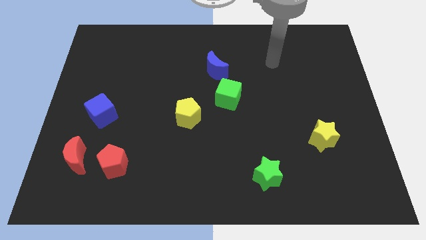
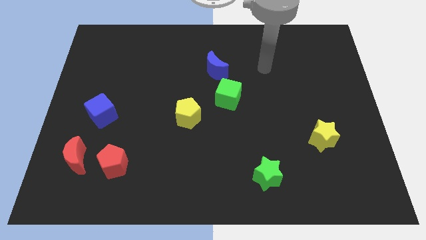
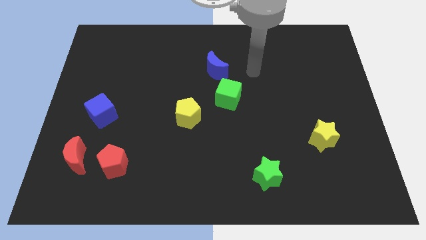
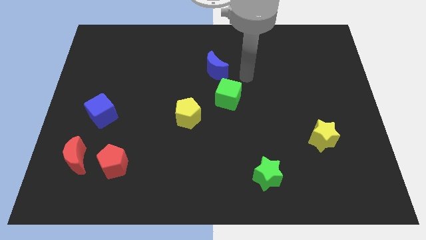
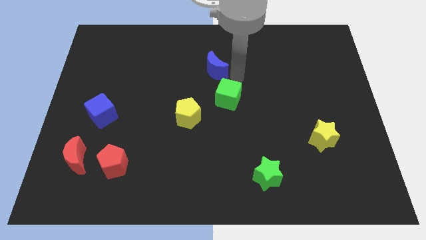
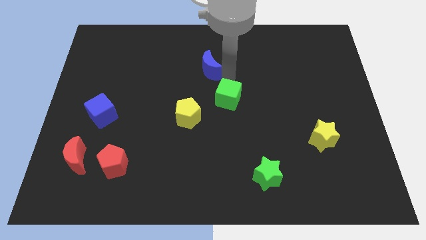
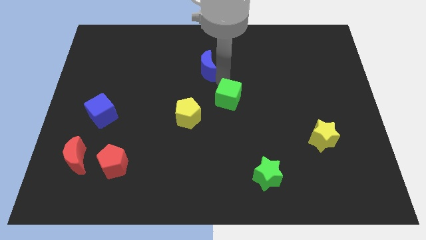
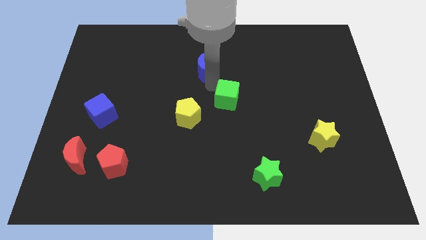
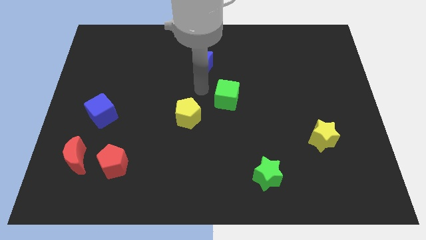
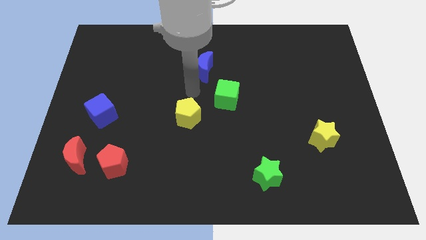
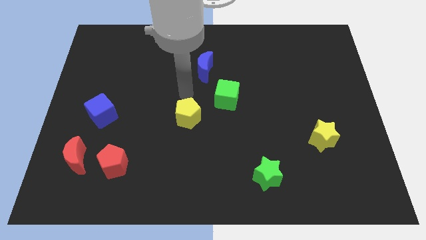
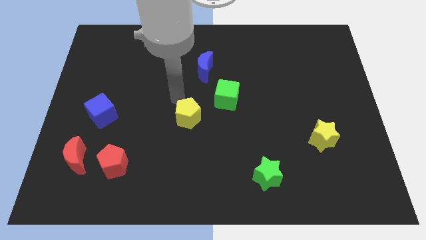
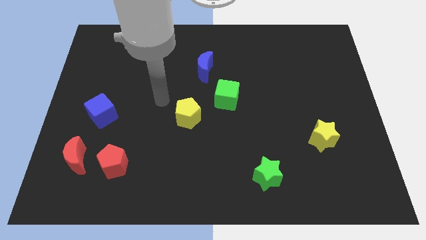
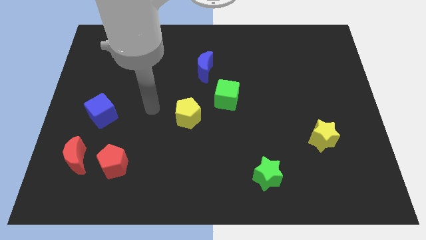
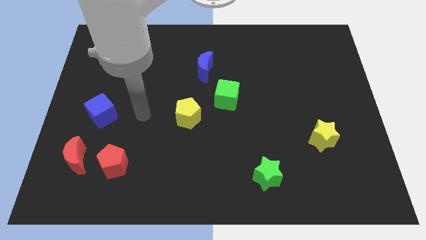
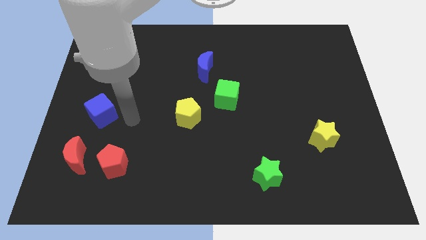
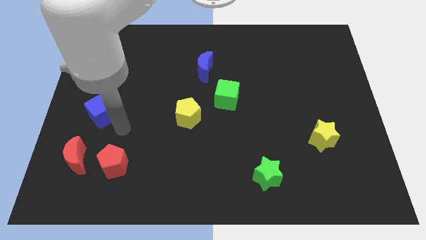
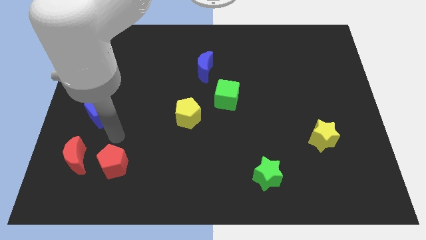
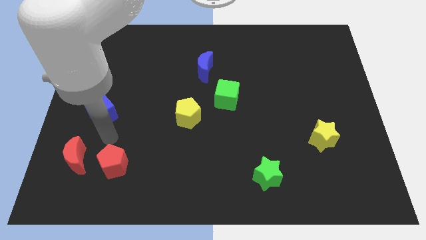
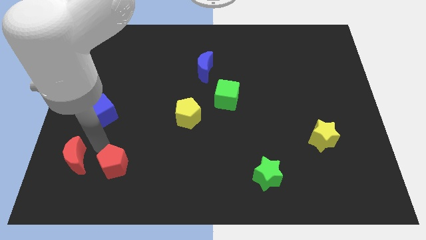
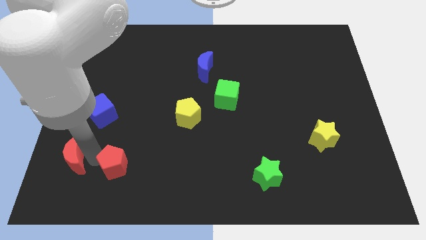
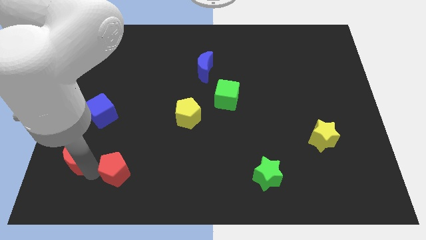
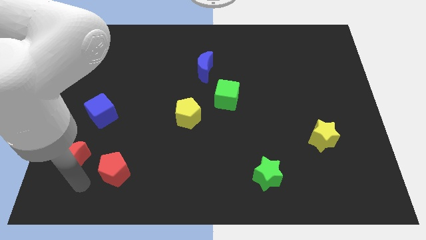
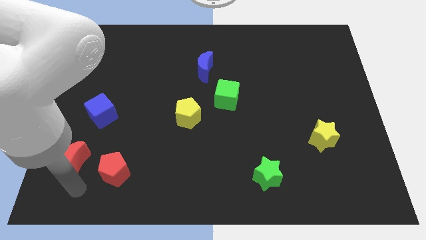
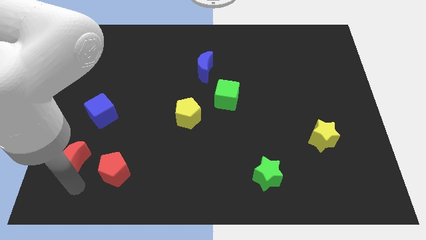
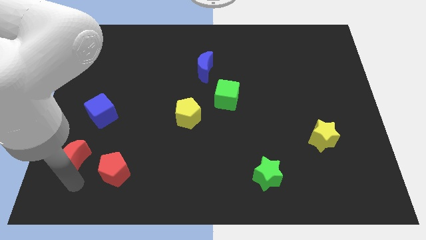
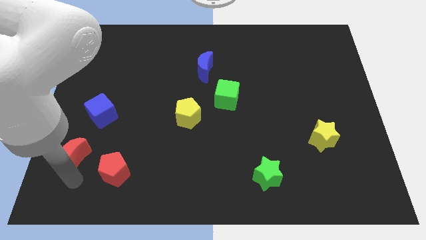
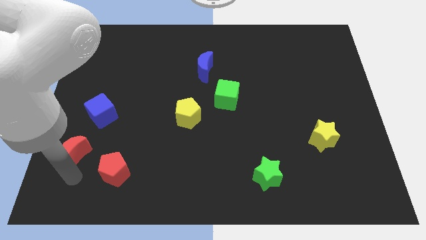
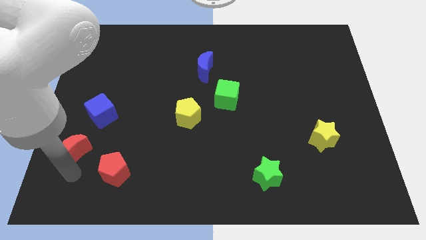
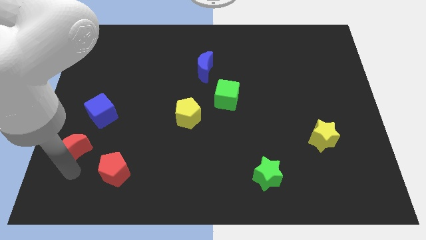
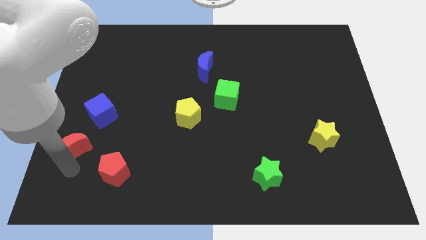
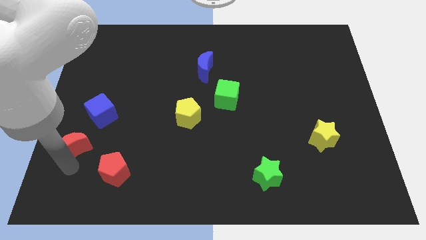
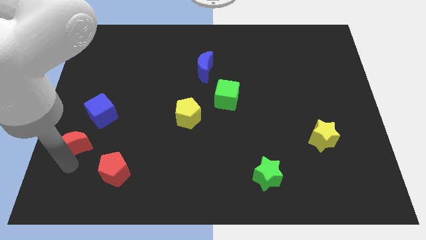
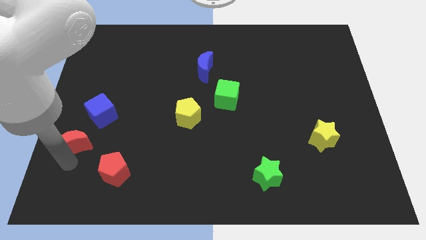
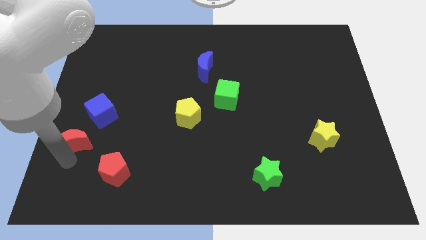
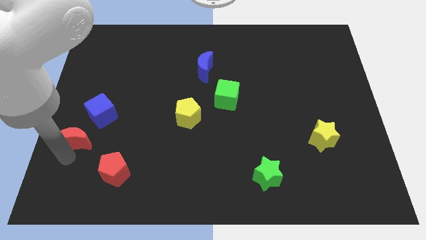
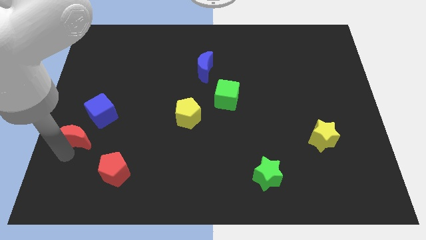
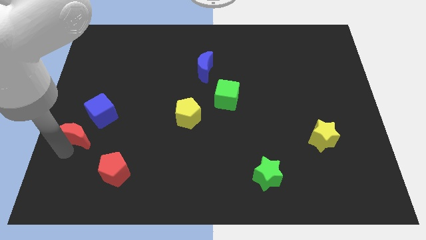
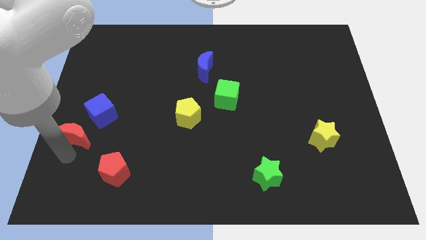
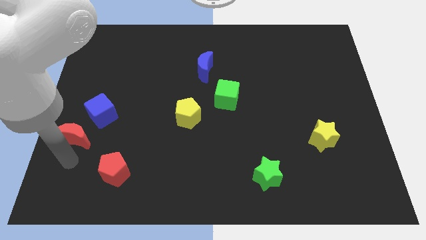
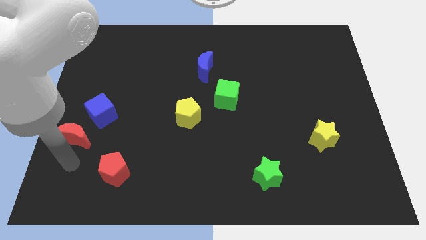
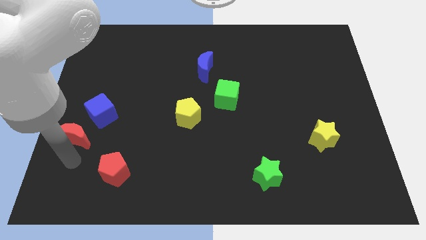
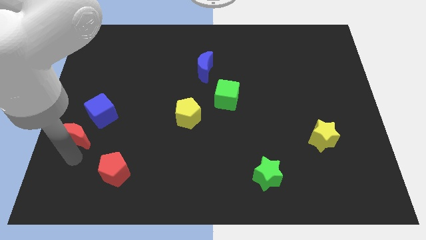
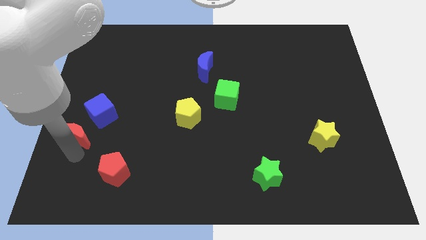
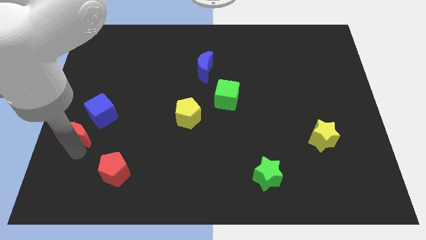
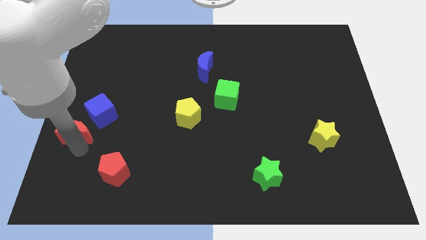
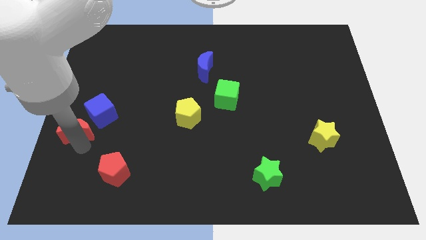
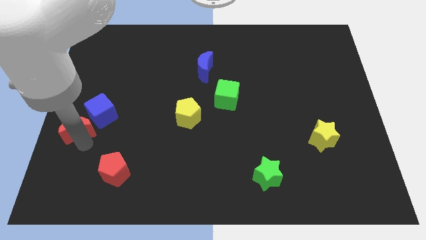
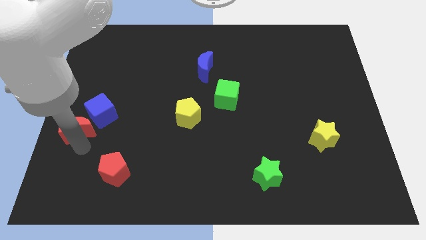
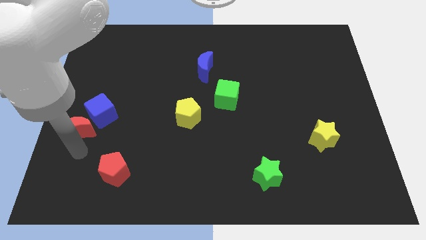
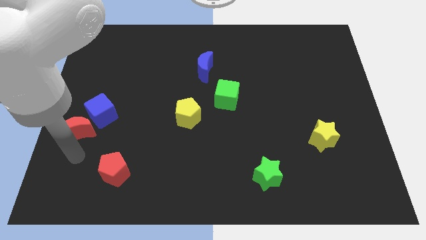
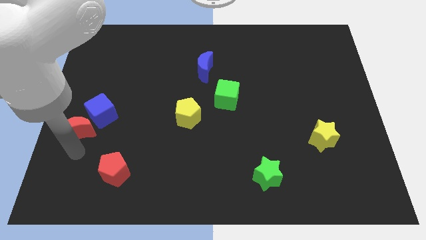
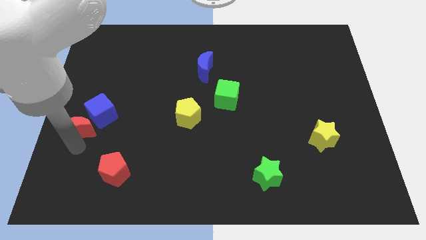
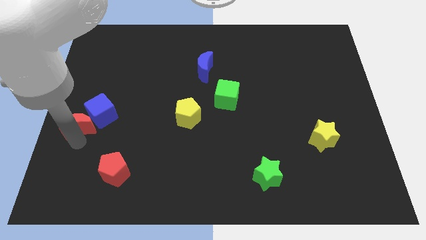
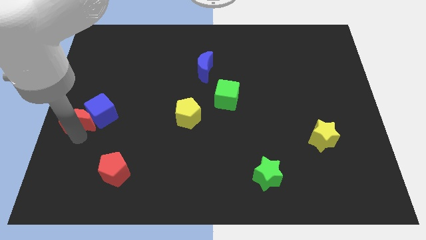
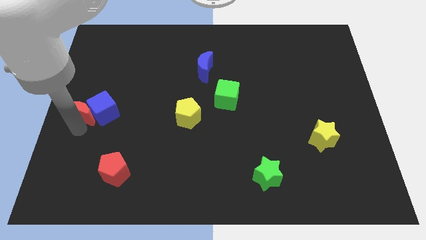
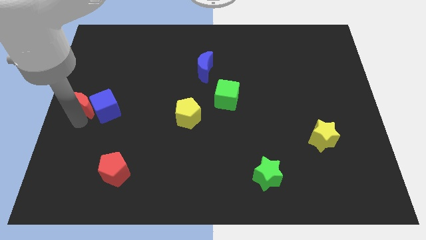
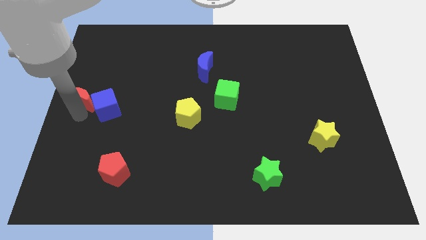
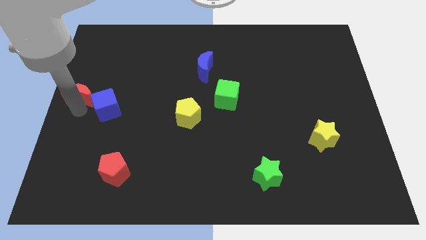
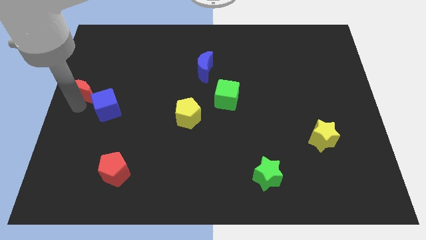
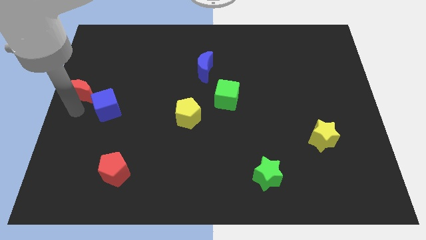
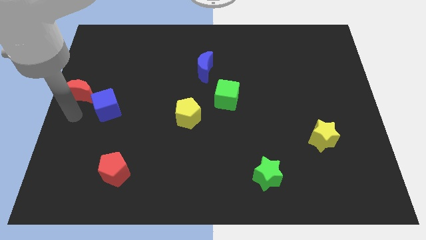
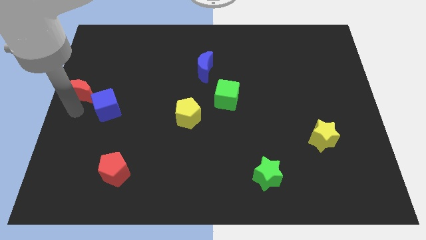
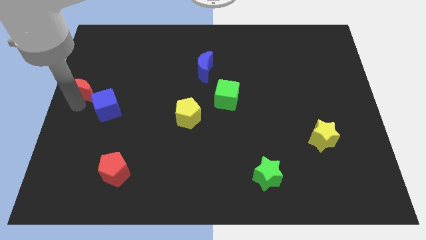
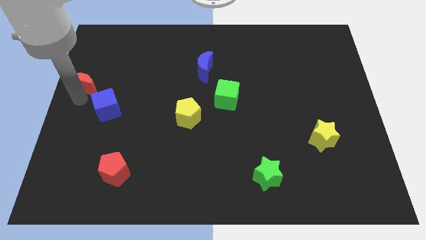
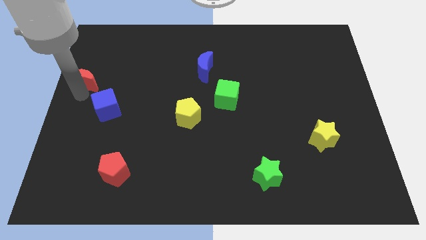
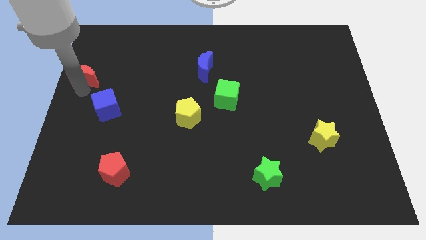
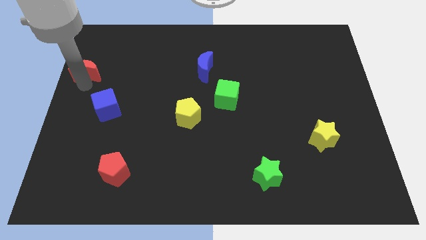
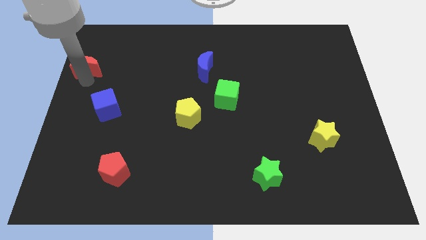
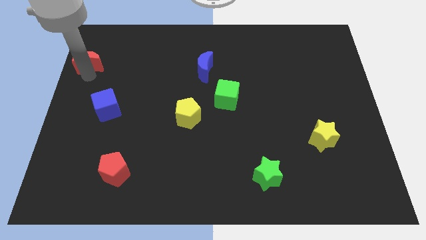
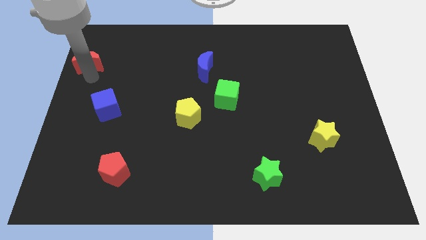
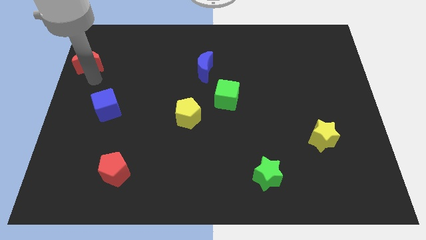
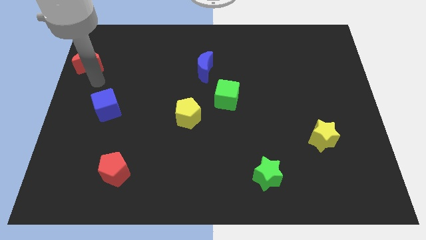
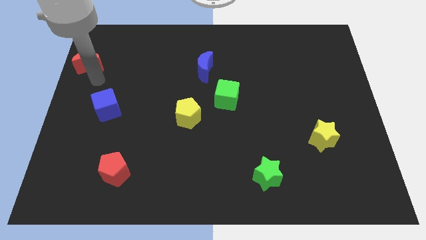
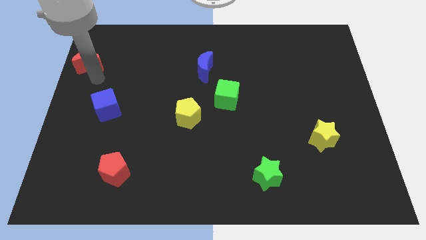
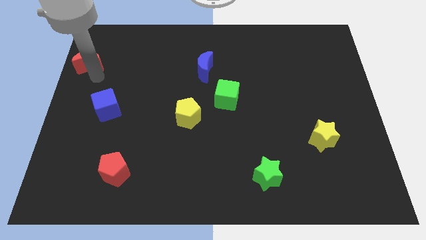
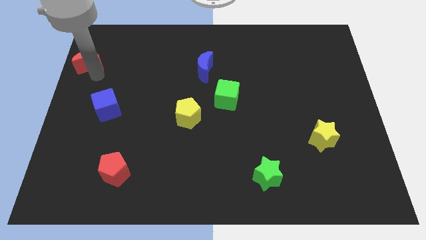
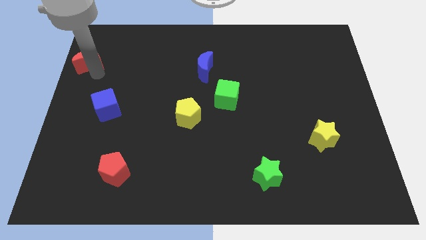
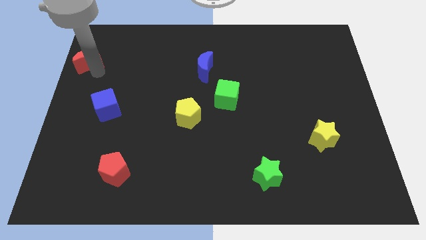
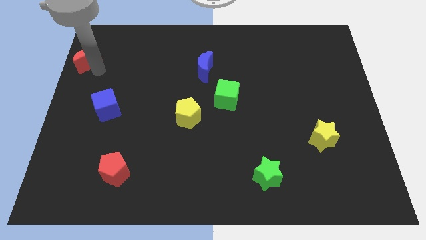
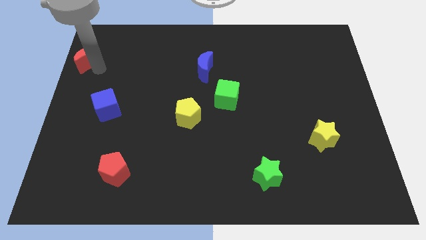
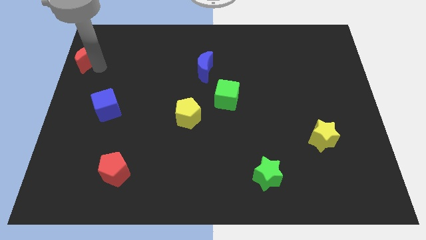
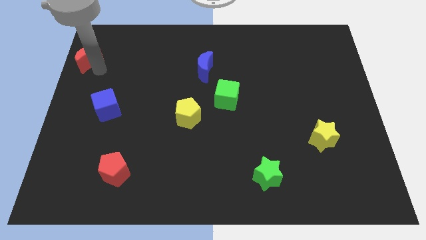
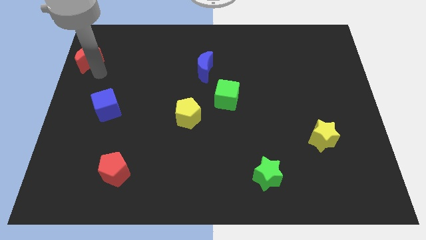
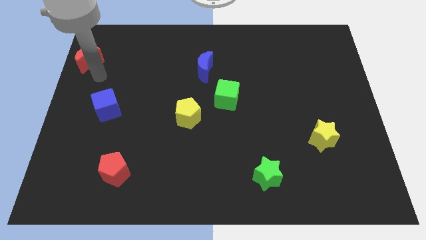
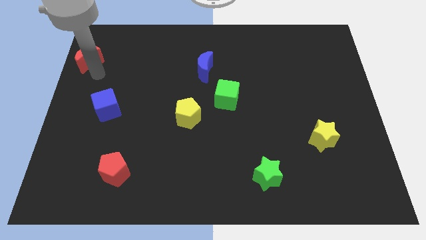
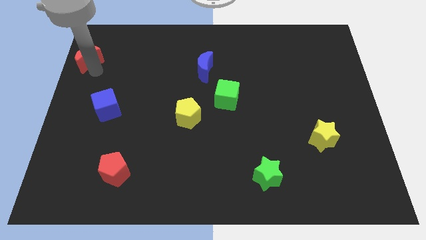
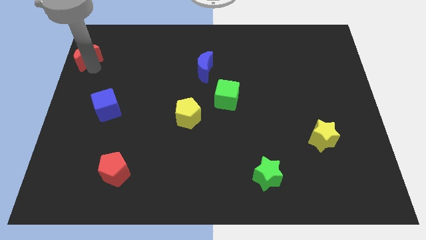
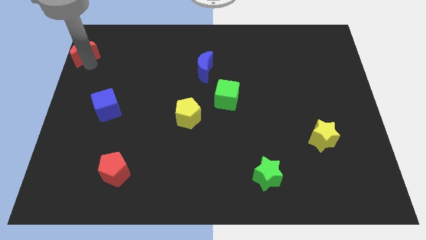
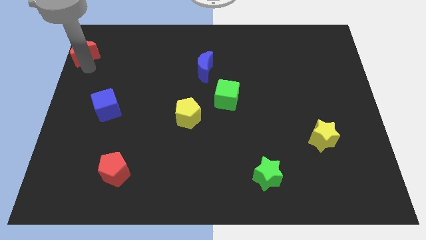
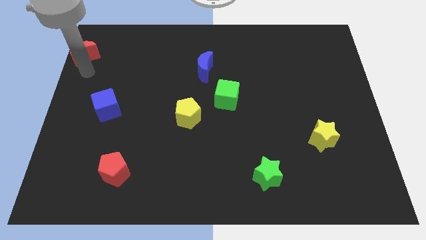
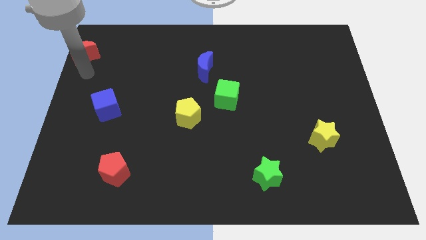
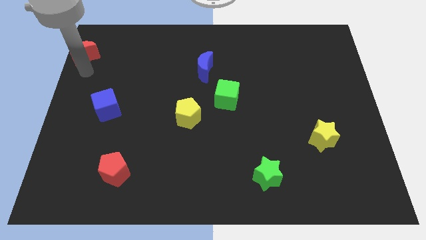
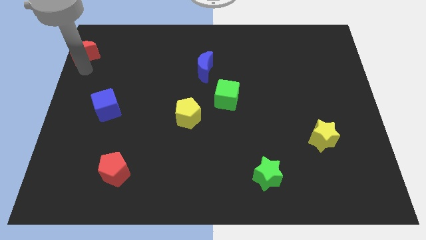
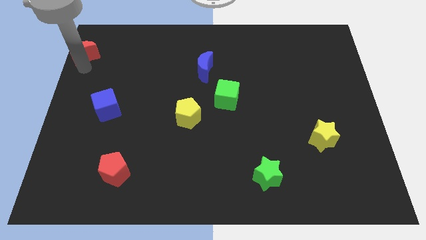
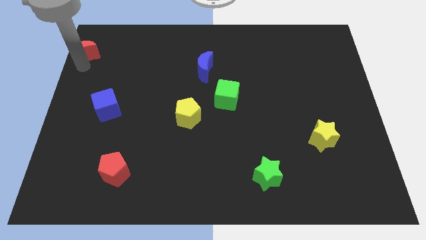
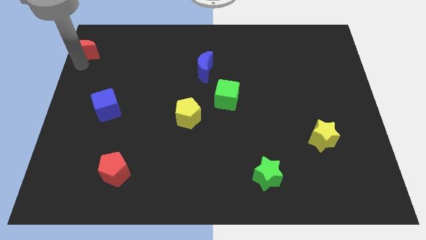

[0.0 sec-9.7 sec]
put the red moon to the top left corner
